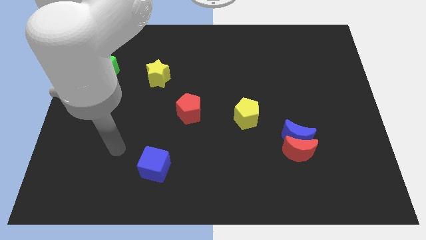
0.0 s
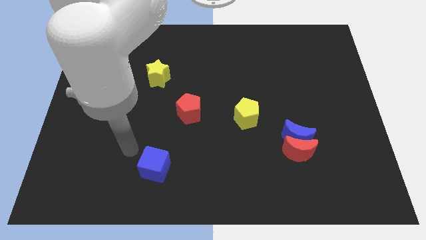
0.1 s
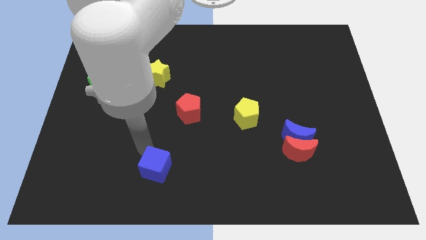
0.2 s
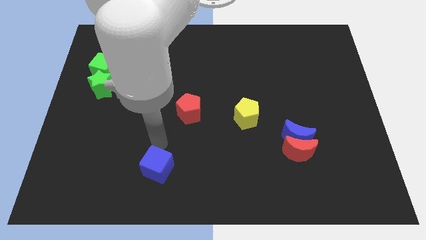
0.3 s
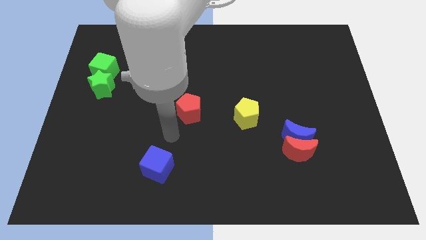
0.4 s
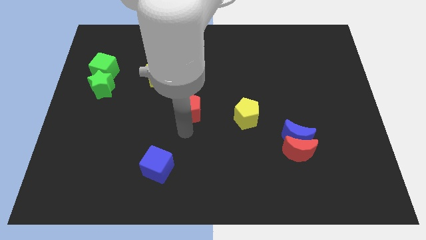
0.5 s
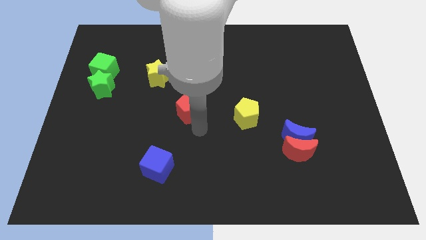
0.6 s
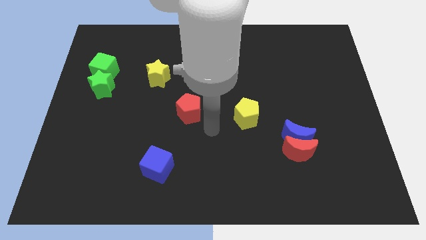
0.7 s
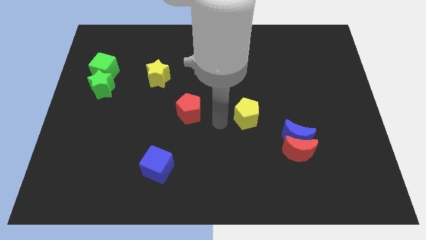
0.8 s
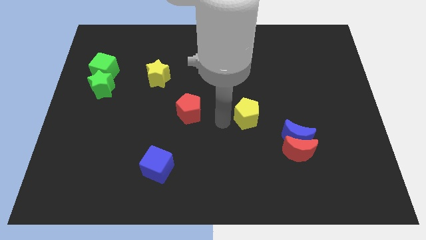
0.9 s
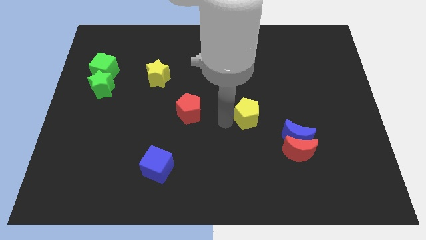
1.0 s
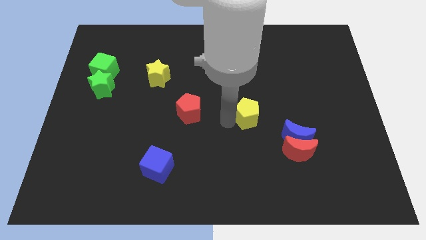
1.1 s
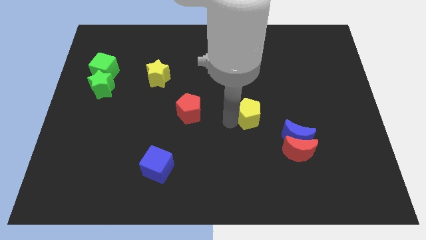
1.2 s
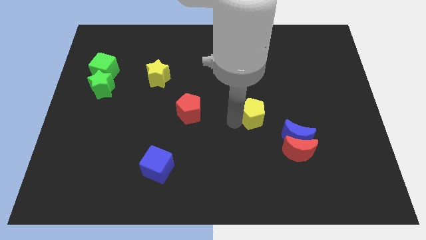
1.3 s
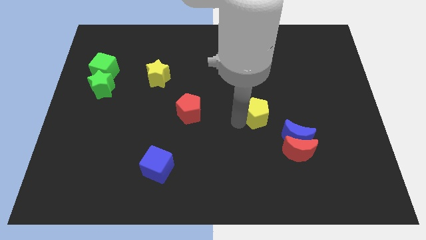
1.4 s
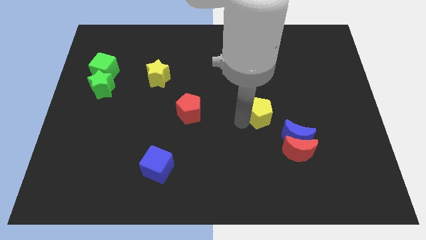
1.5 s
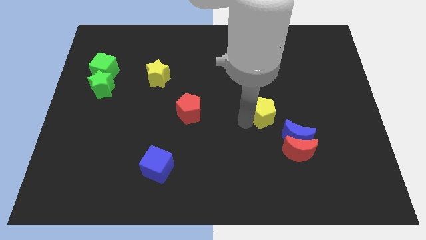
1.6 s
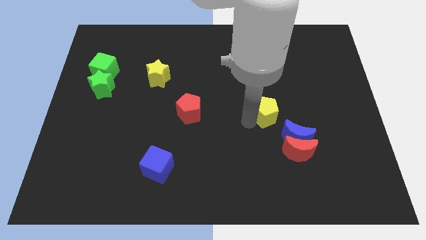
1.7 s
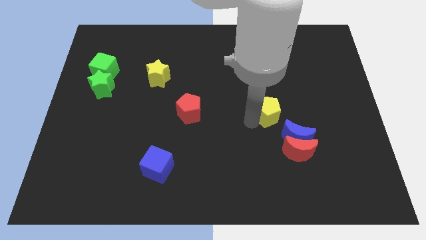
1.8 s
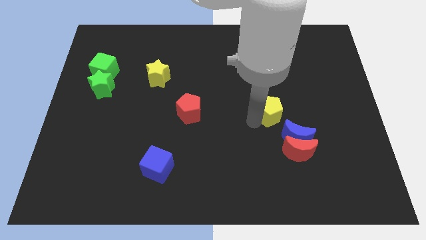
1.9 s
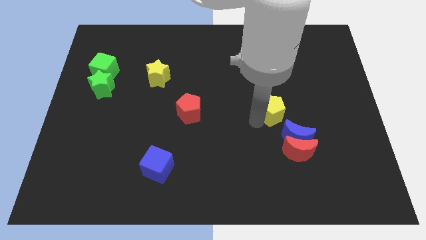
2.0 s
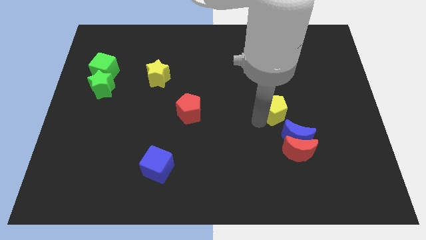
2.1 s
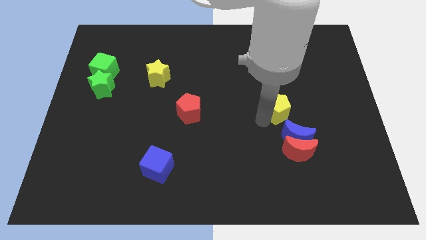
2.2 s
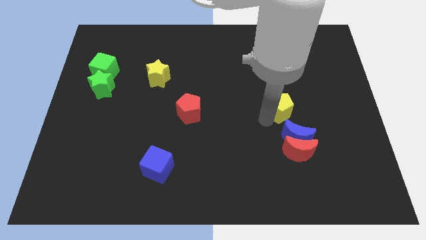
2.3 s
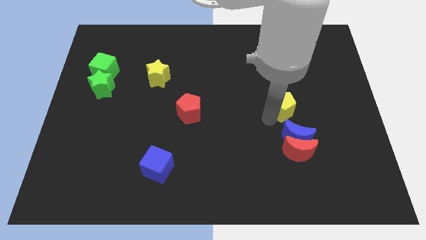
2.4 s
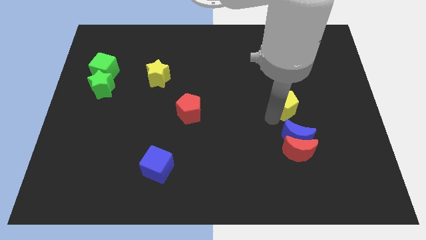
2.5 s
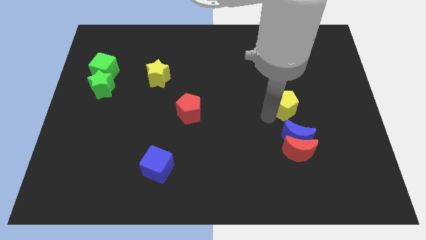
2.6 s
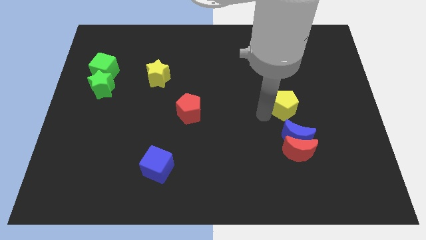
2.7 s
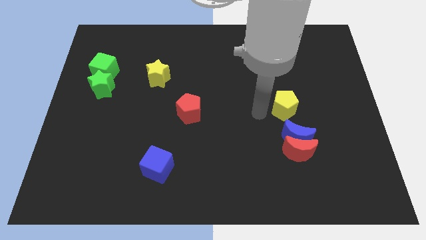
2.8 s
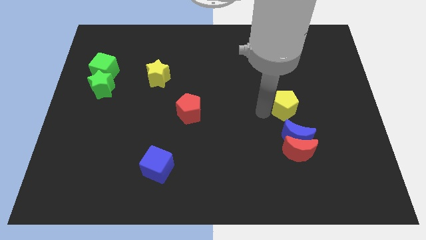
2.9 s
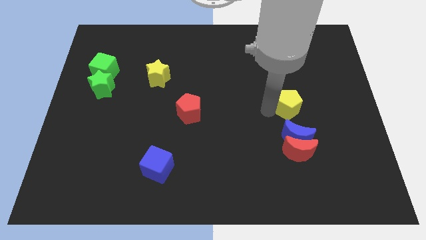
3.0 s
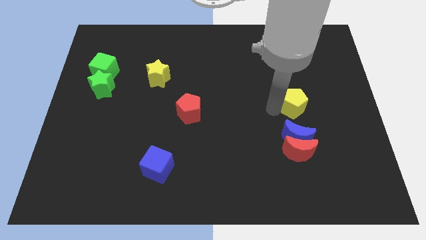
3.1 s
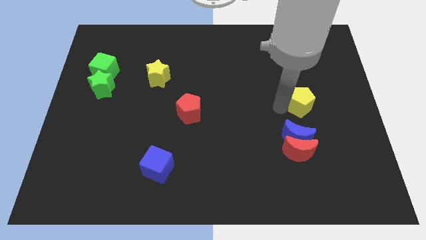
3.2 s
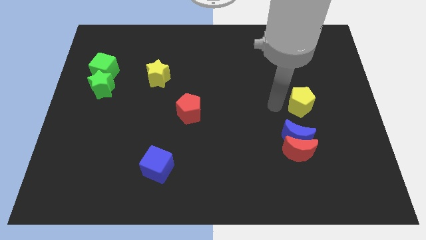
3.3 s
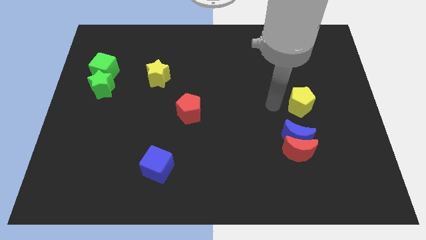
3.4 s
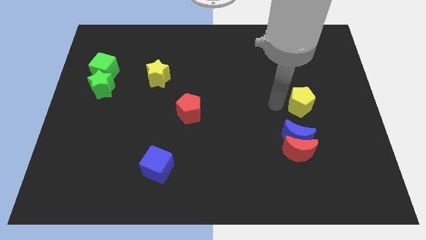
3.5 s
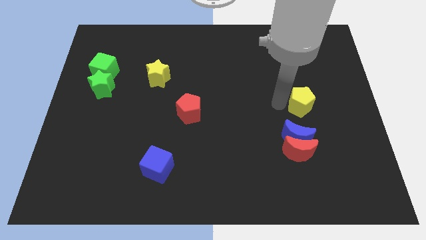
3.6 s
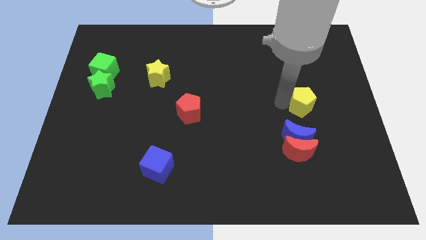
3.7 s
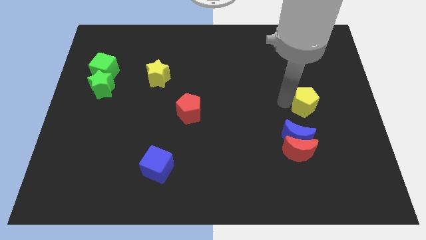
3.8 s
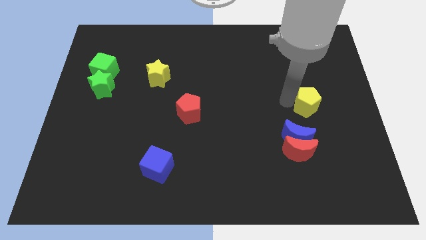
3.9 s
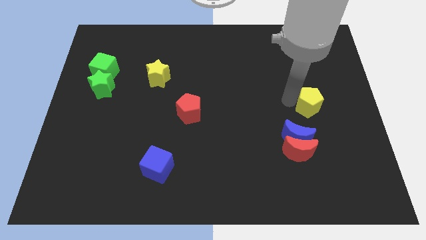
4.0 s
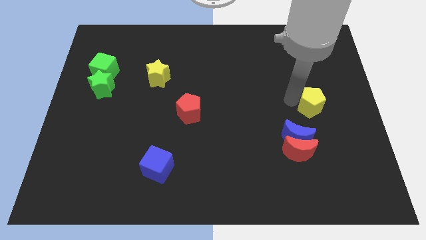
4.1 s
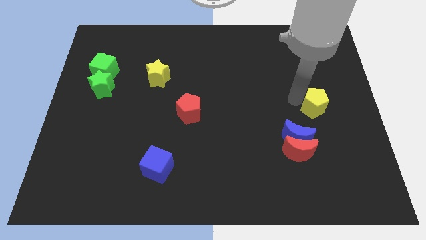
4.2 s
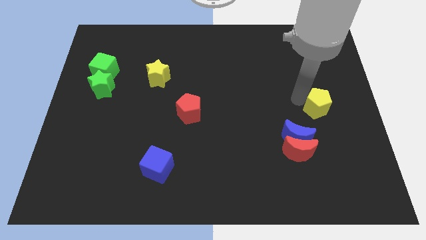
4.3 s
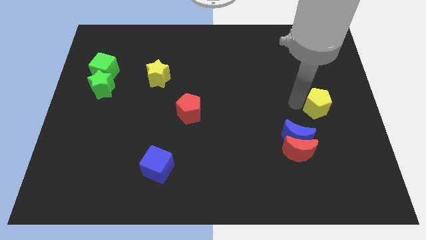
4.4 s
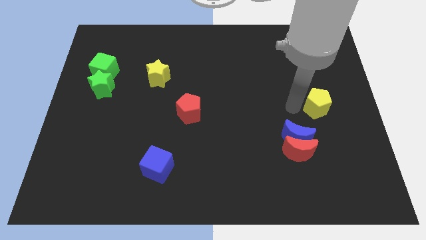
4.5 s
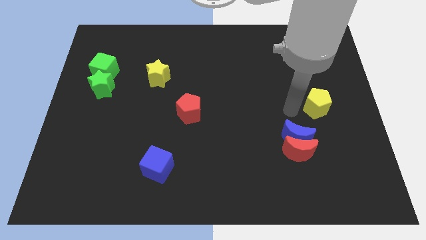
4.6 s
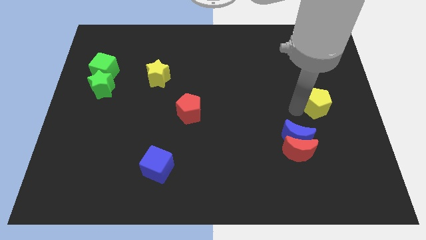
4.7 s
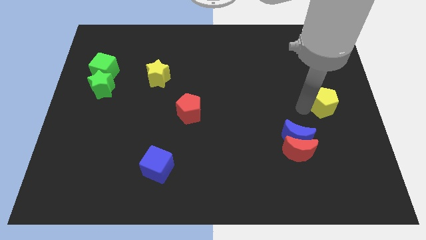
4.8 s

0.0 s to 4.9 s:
slide the yellow pentagon to the right side

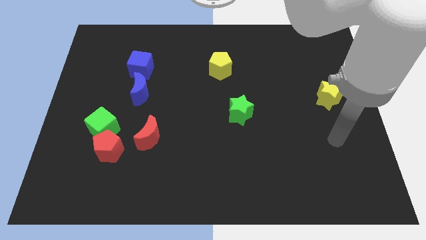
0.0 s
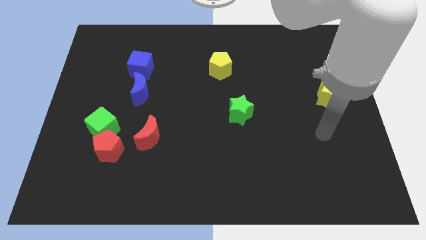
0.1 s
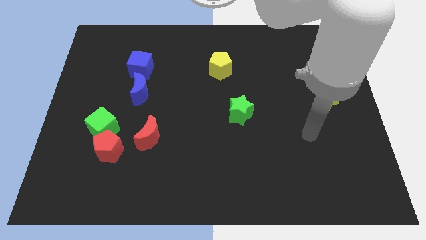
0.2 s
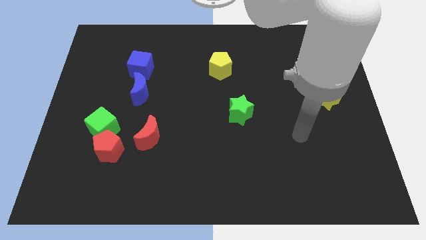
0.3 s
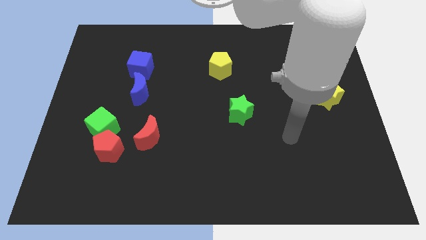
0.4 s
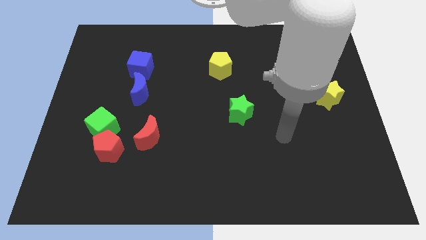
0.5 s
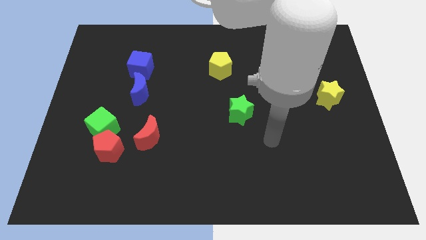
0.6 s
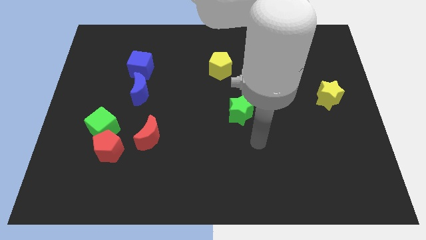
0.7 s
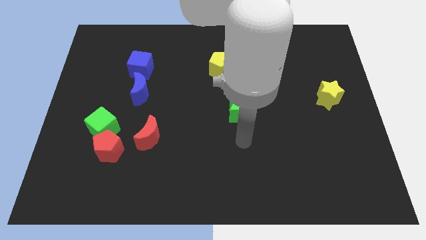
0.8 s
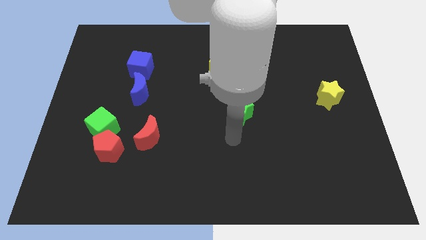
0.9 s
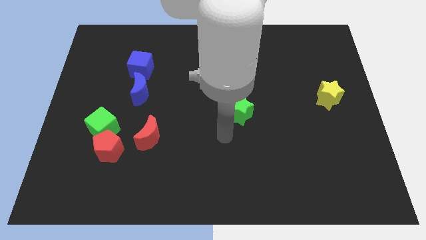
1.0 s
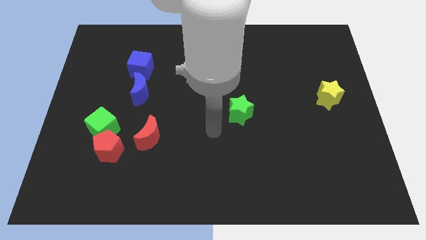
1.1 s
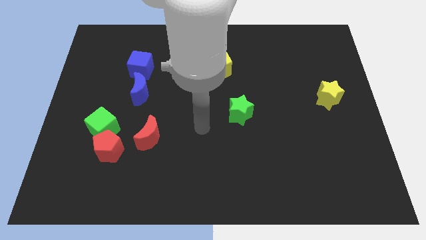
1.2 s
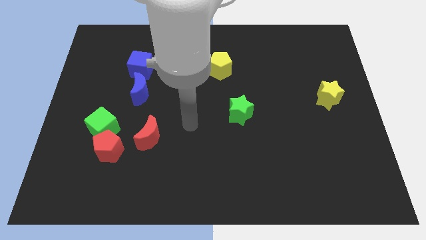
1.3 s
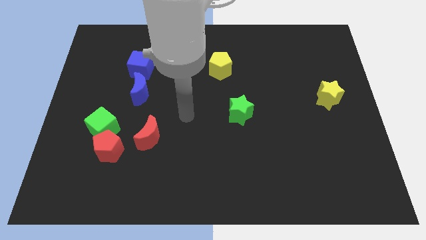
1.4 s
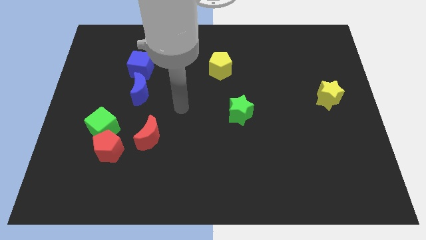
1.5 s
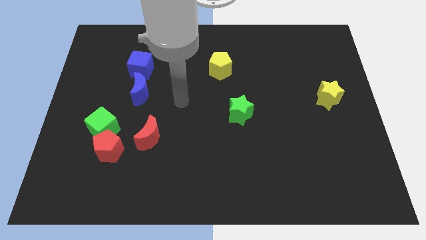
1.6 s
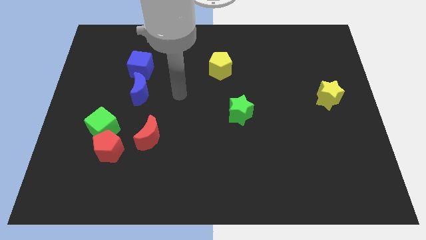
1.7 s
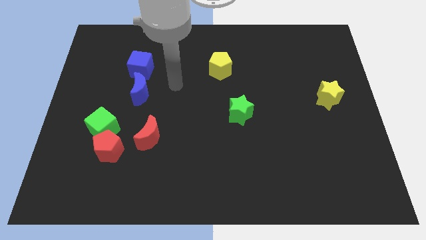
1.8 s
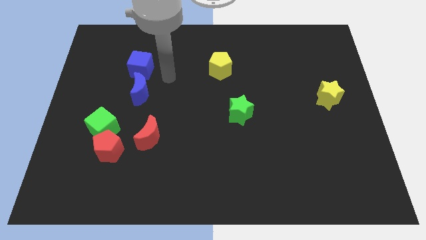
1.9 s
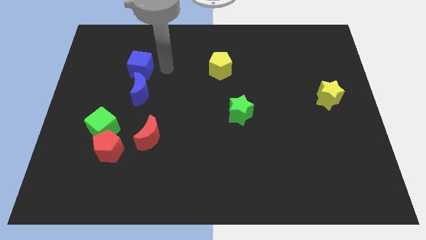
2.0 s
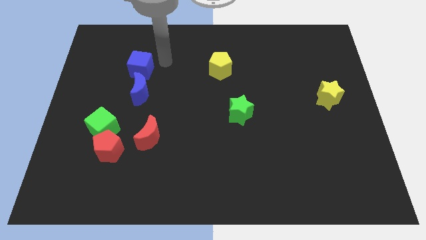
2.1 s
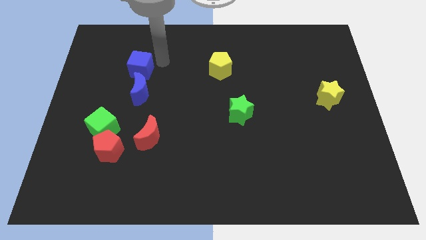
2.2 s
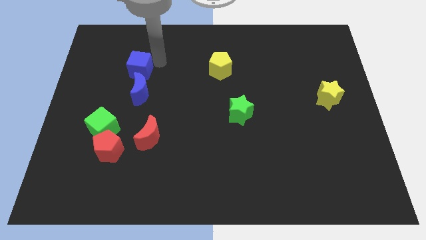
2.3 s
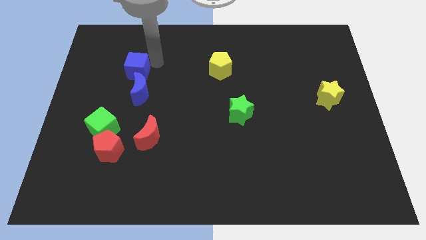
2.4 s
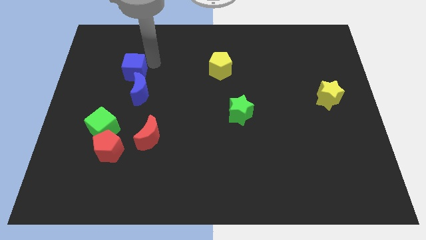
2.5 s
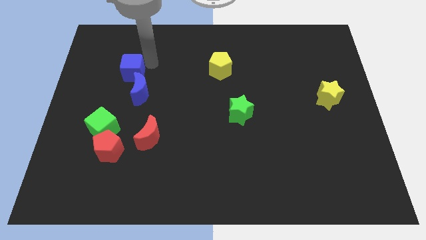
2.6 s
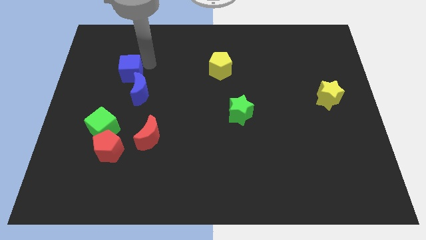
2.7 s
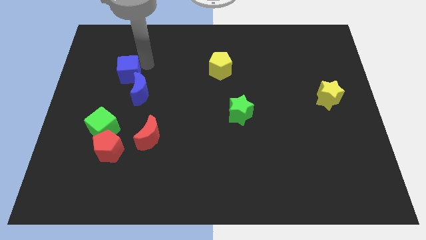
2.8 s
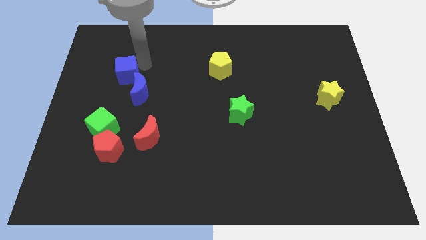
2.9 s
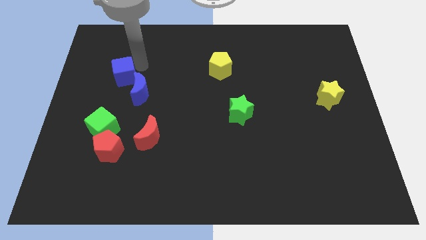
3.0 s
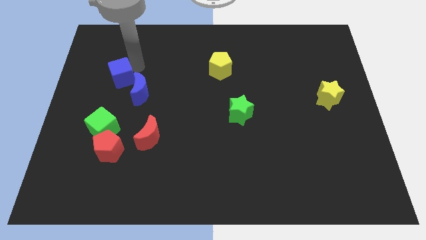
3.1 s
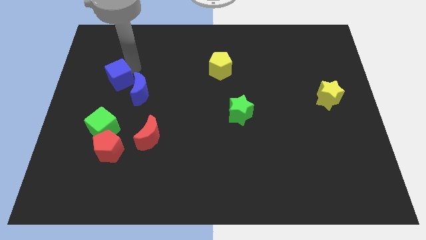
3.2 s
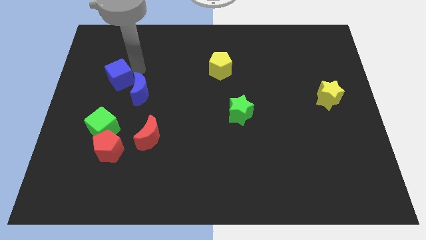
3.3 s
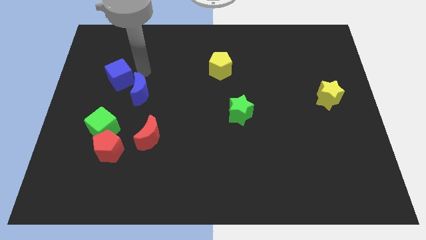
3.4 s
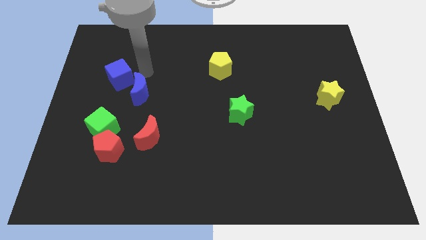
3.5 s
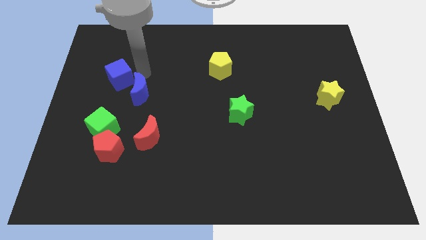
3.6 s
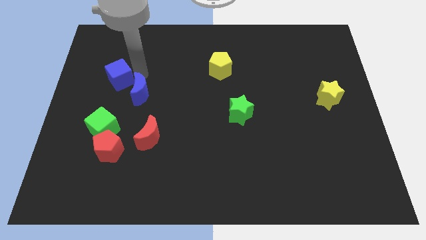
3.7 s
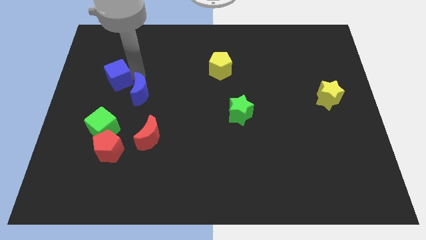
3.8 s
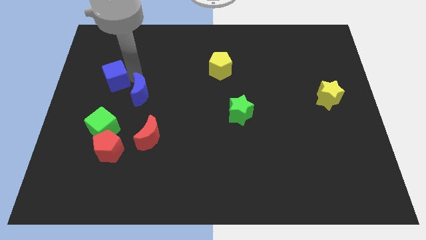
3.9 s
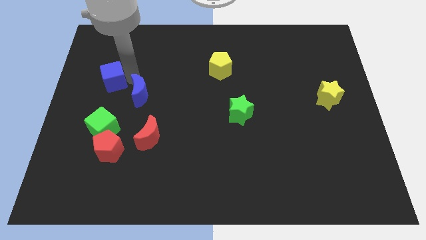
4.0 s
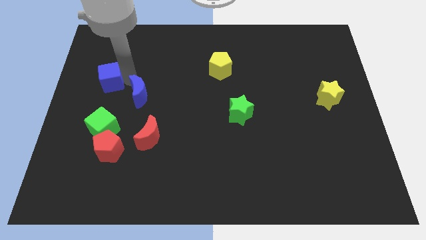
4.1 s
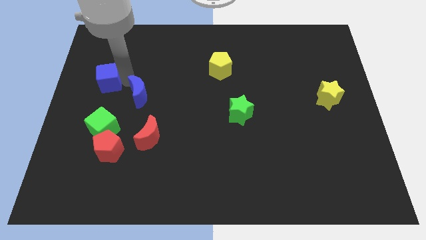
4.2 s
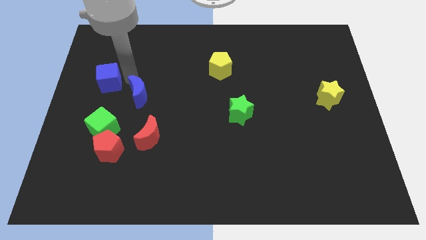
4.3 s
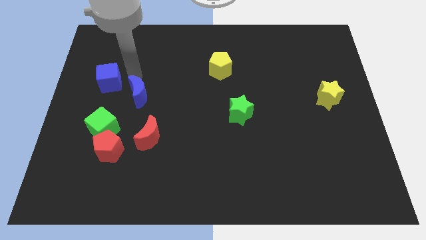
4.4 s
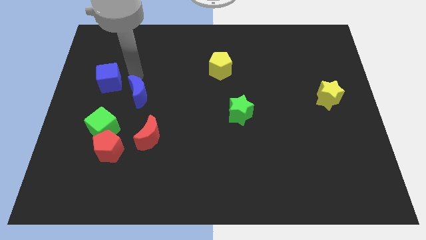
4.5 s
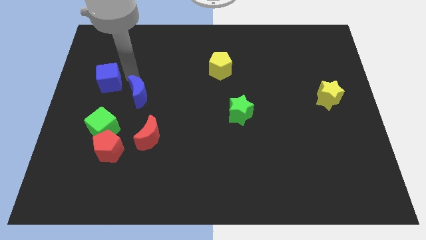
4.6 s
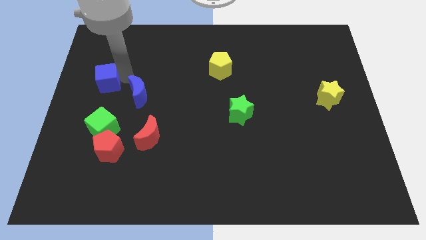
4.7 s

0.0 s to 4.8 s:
put the blue cube to the center left
